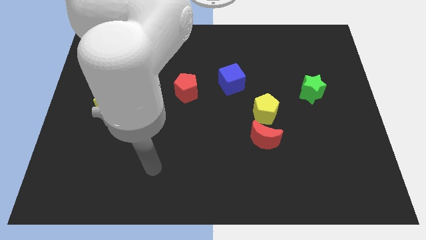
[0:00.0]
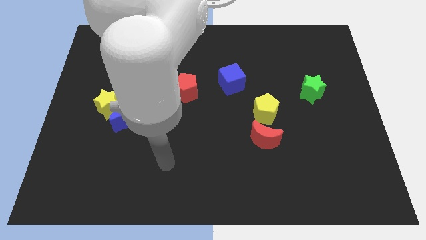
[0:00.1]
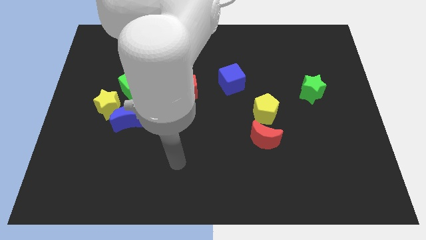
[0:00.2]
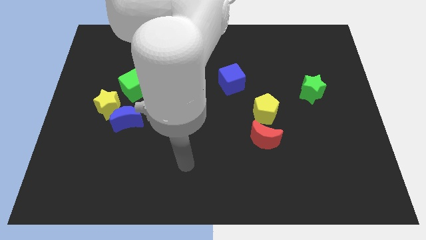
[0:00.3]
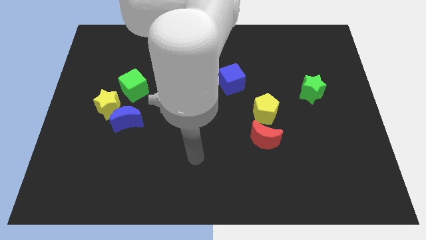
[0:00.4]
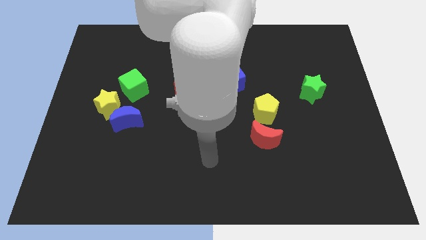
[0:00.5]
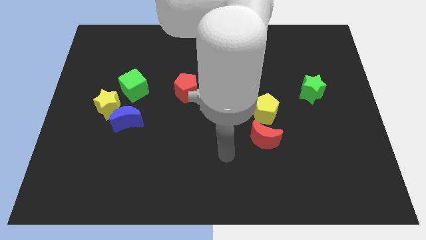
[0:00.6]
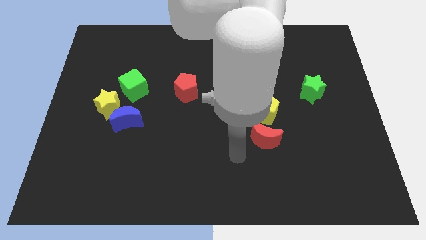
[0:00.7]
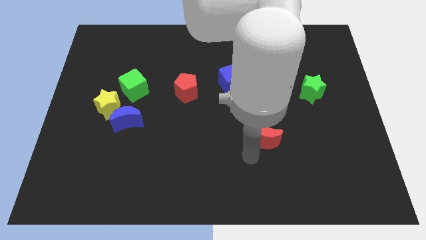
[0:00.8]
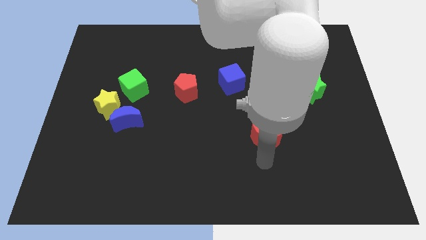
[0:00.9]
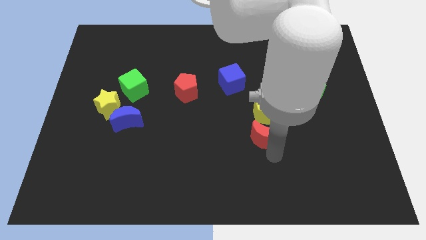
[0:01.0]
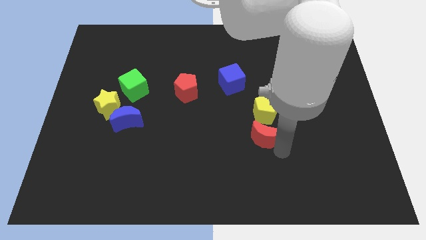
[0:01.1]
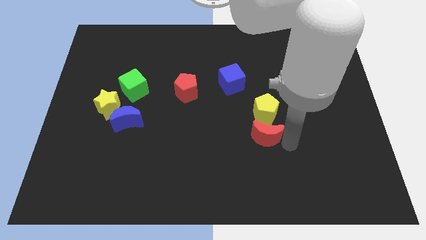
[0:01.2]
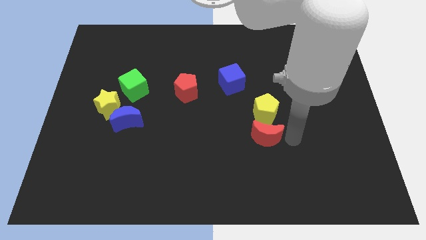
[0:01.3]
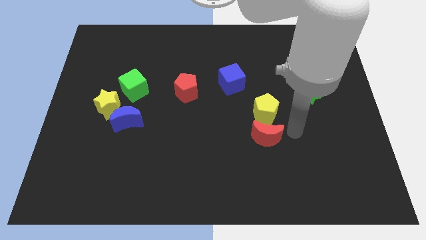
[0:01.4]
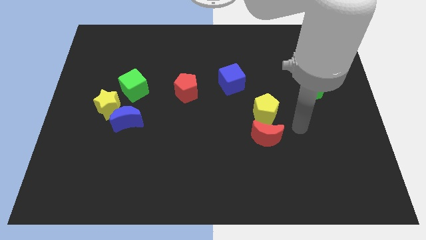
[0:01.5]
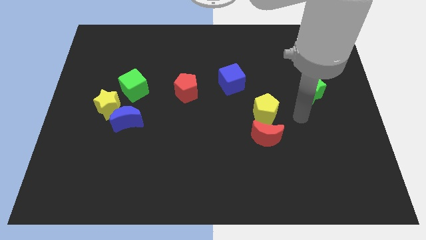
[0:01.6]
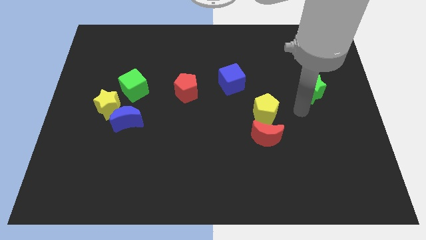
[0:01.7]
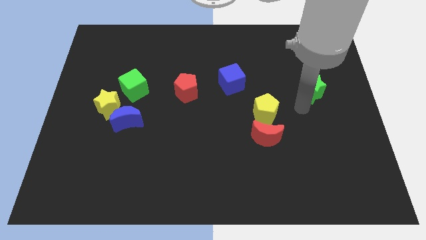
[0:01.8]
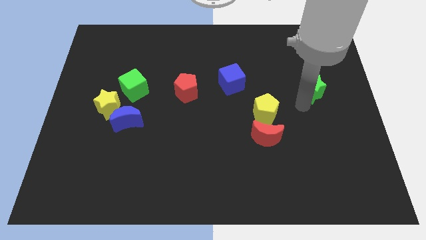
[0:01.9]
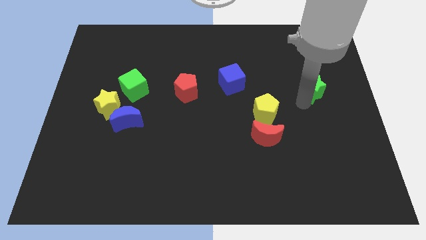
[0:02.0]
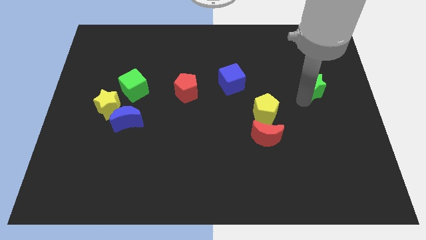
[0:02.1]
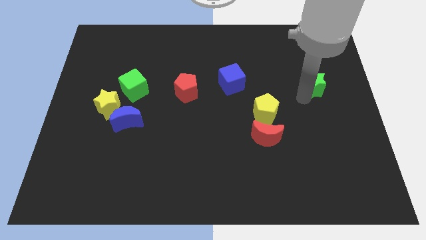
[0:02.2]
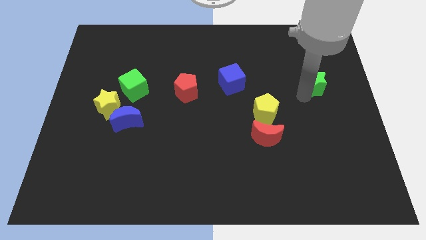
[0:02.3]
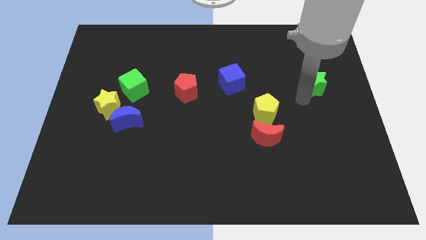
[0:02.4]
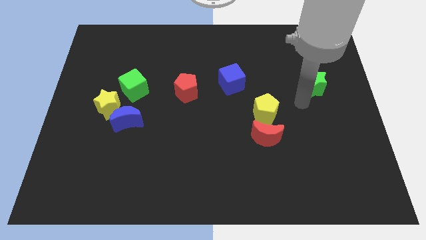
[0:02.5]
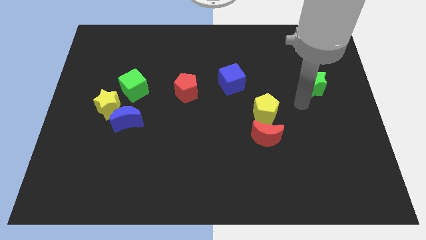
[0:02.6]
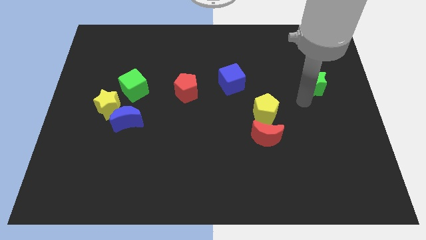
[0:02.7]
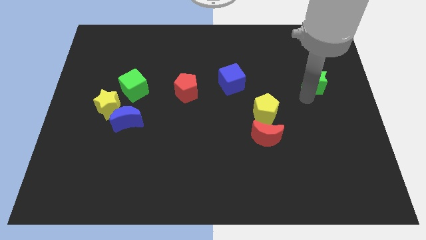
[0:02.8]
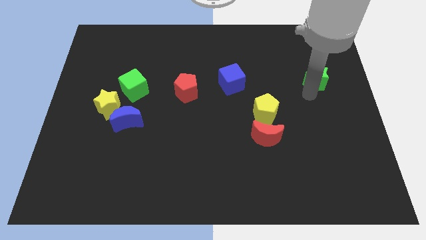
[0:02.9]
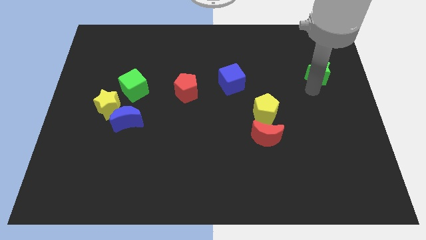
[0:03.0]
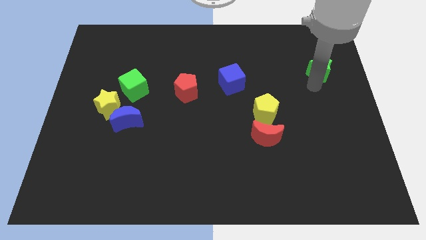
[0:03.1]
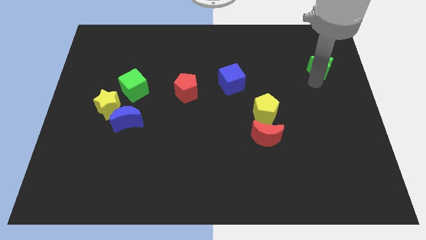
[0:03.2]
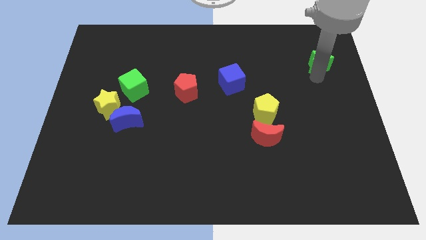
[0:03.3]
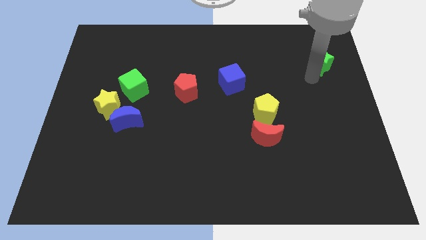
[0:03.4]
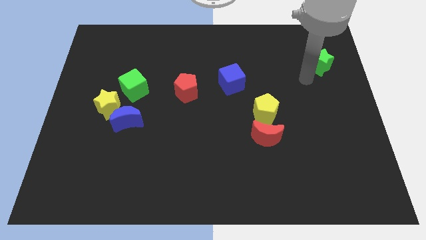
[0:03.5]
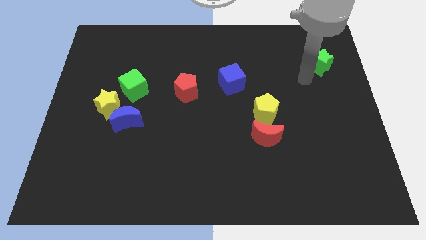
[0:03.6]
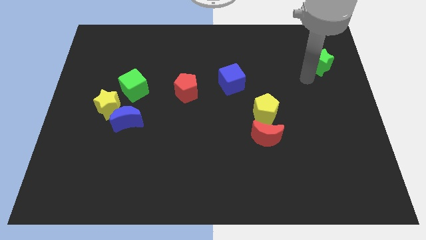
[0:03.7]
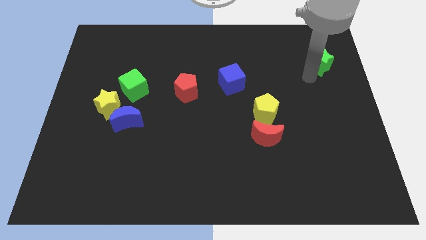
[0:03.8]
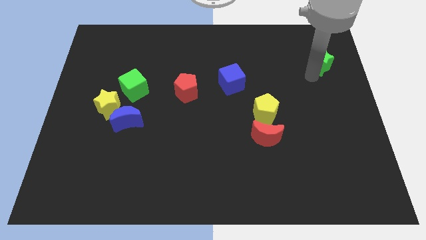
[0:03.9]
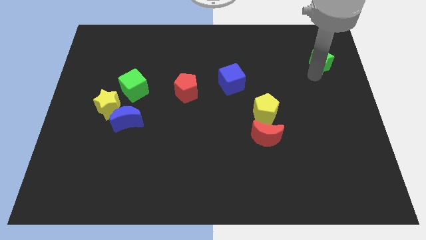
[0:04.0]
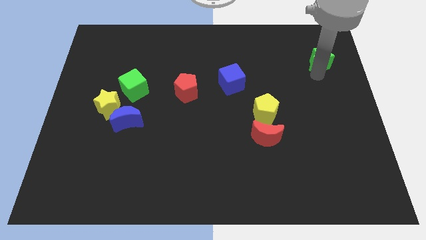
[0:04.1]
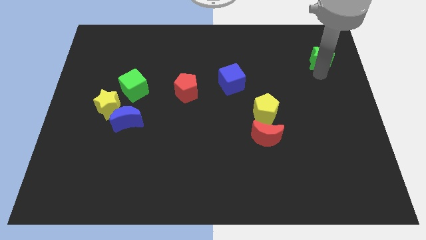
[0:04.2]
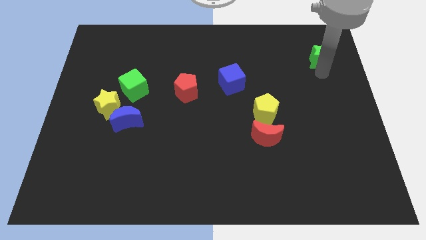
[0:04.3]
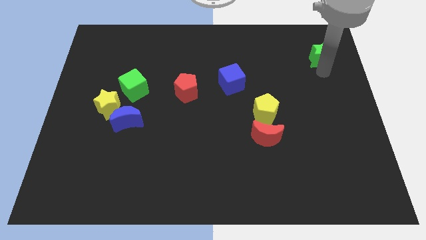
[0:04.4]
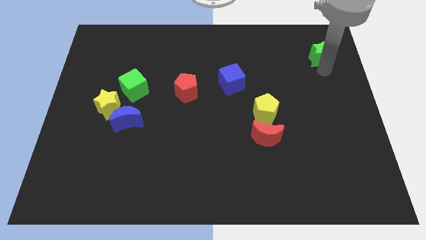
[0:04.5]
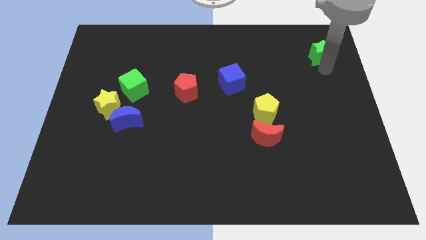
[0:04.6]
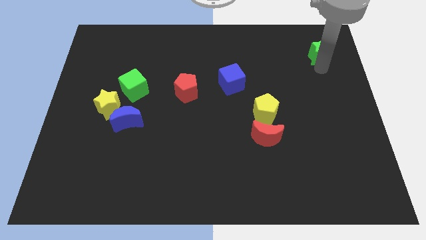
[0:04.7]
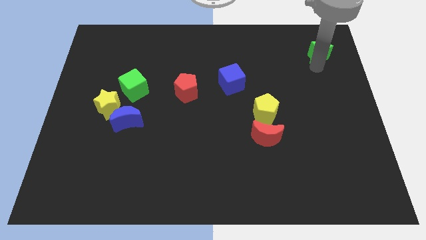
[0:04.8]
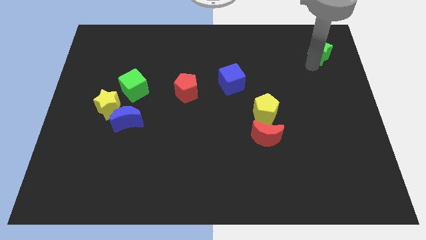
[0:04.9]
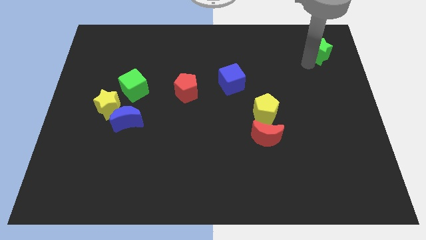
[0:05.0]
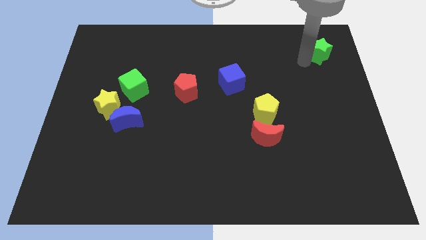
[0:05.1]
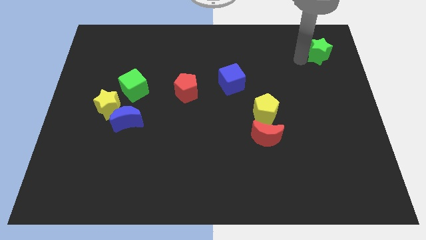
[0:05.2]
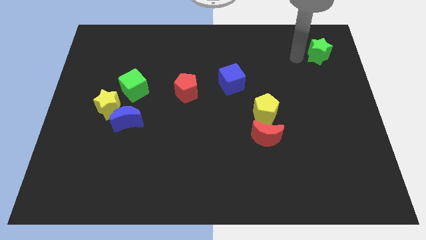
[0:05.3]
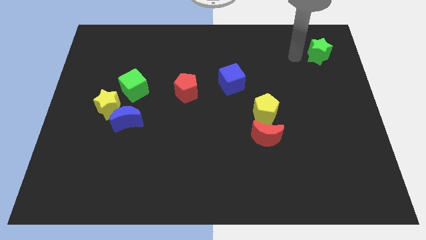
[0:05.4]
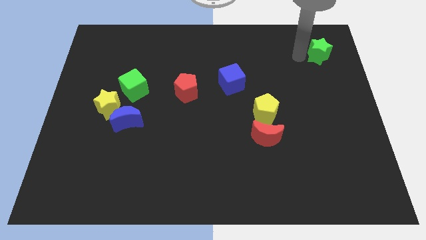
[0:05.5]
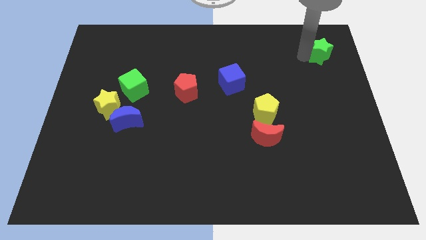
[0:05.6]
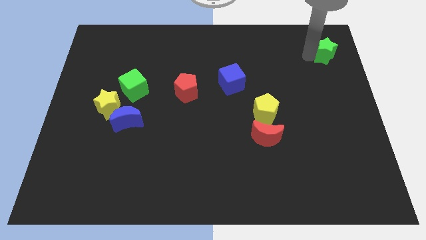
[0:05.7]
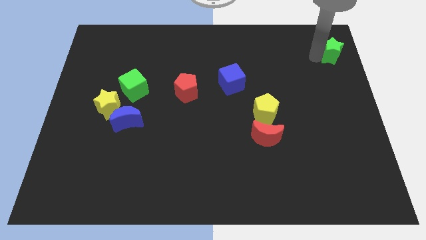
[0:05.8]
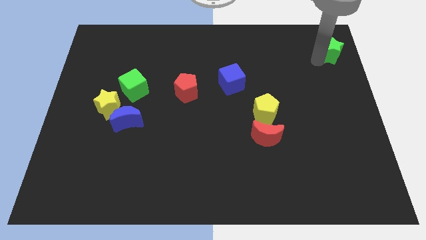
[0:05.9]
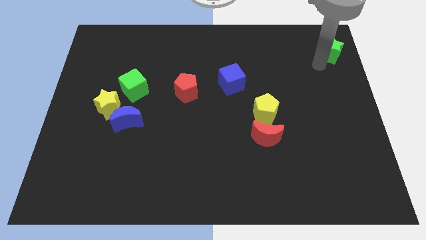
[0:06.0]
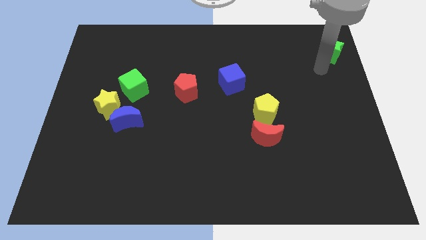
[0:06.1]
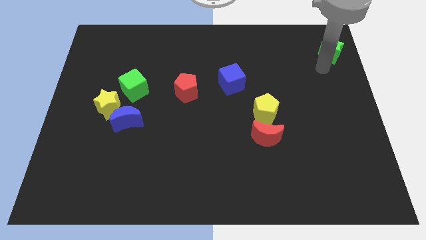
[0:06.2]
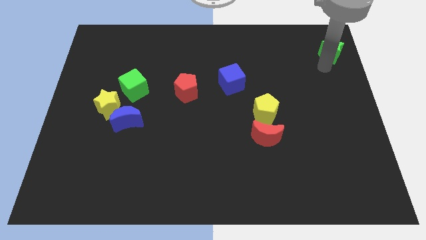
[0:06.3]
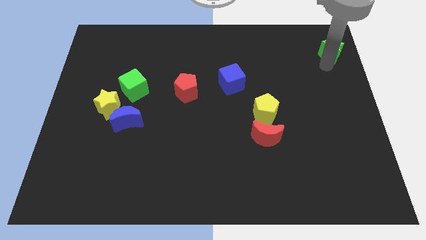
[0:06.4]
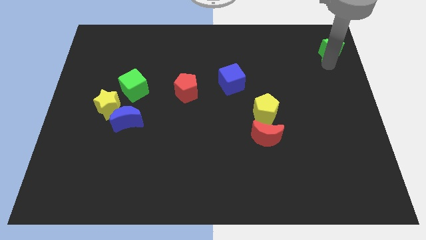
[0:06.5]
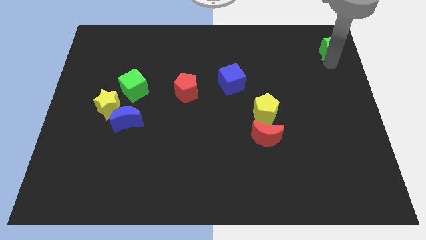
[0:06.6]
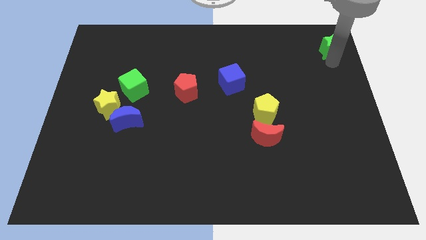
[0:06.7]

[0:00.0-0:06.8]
push the green star to the upper right corner
